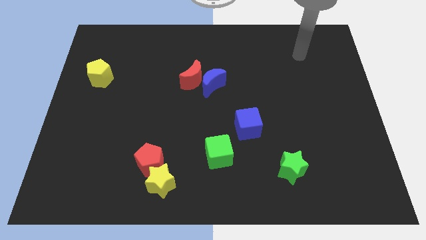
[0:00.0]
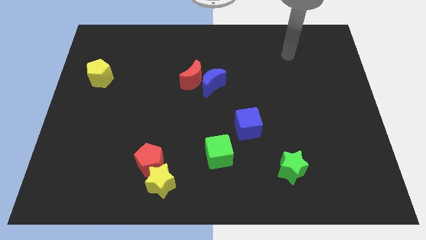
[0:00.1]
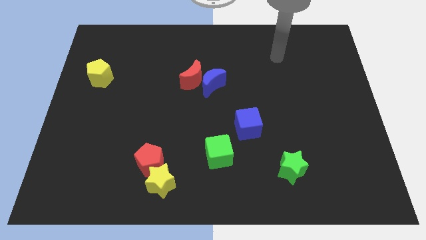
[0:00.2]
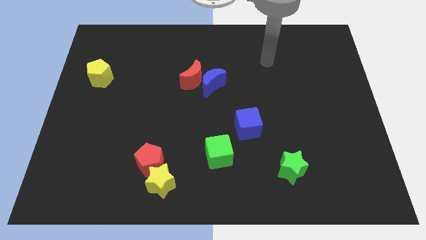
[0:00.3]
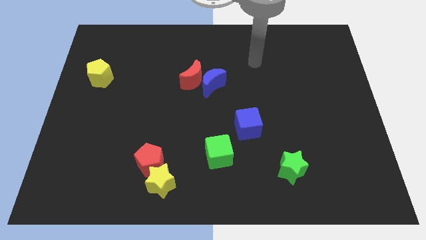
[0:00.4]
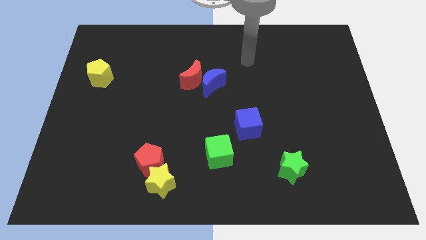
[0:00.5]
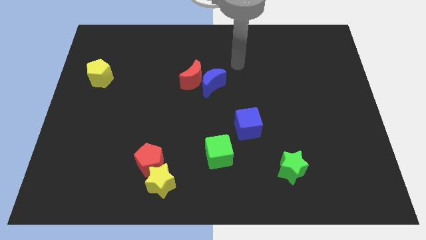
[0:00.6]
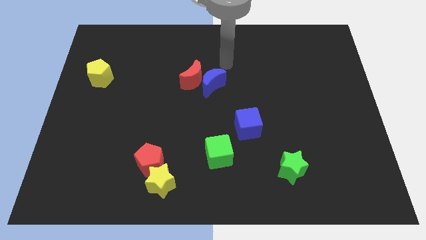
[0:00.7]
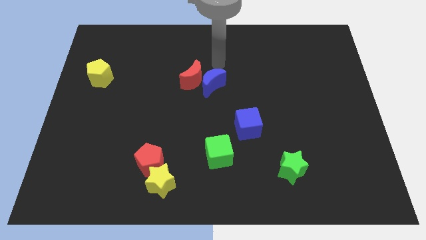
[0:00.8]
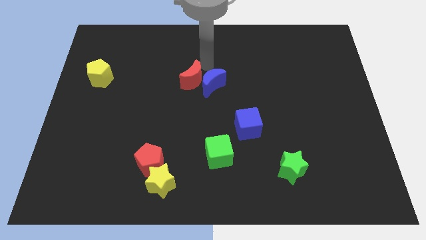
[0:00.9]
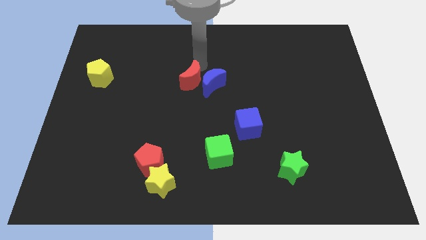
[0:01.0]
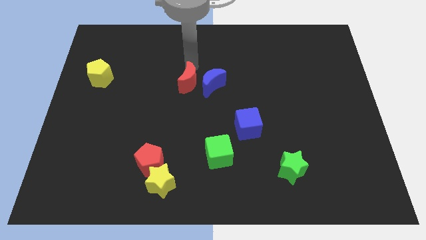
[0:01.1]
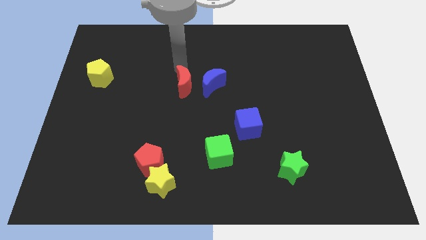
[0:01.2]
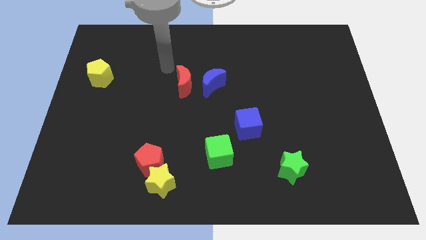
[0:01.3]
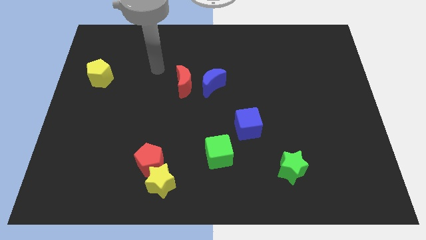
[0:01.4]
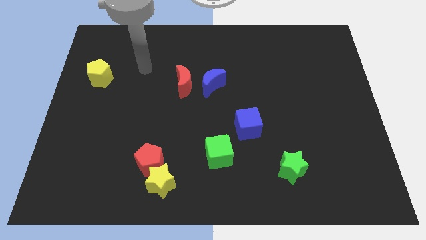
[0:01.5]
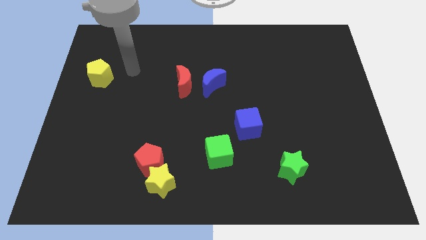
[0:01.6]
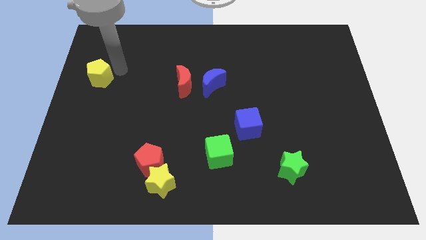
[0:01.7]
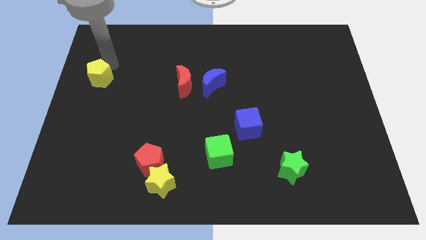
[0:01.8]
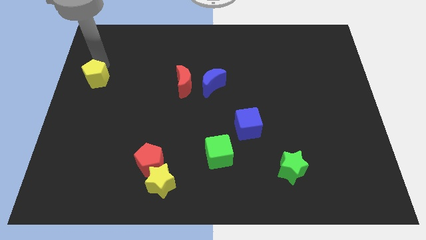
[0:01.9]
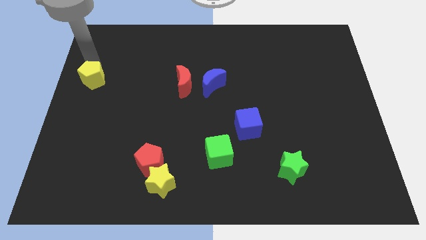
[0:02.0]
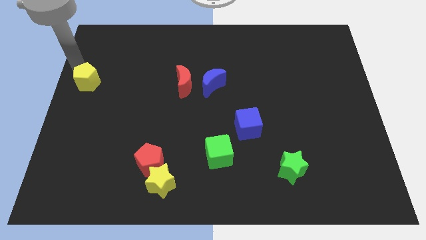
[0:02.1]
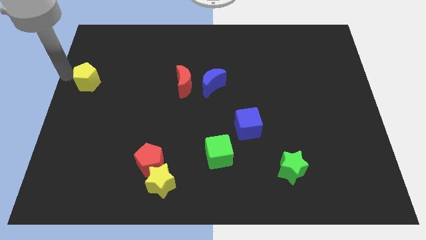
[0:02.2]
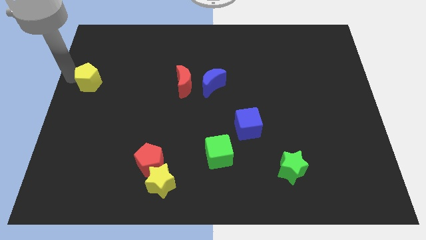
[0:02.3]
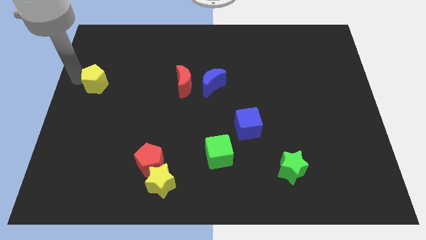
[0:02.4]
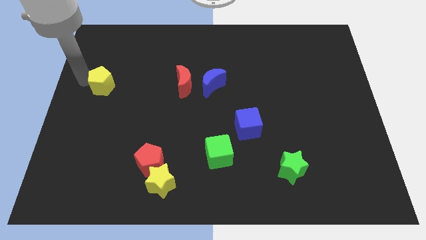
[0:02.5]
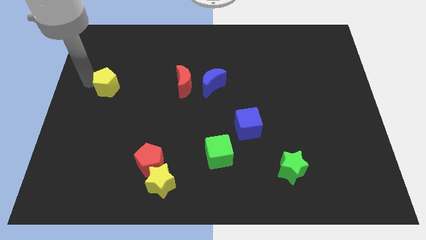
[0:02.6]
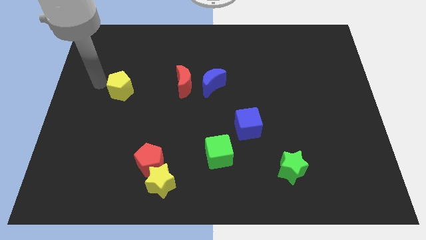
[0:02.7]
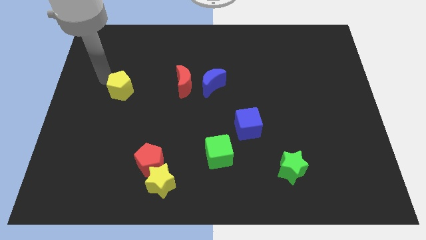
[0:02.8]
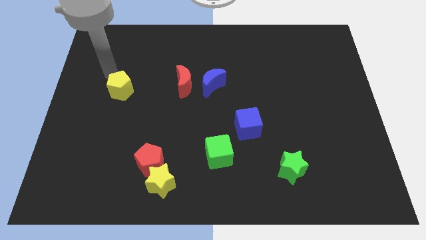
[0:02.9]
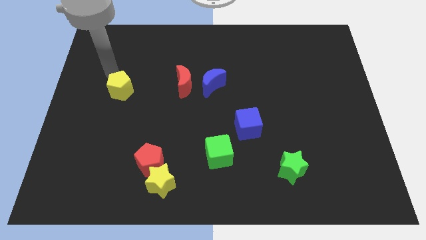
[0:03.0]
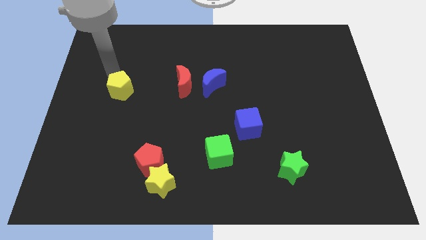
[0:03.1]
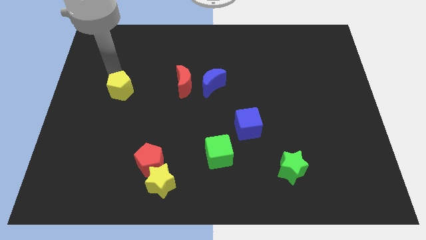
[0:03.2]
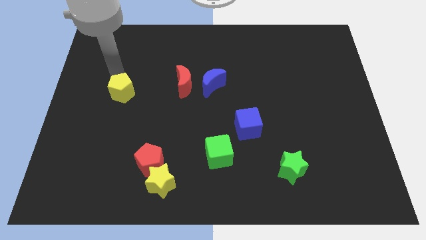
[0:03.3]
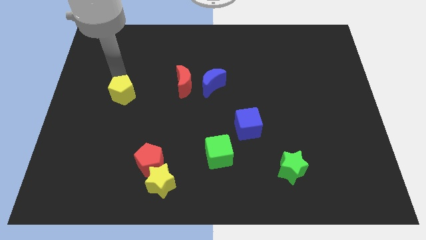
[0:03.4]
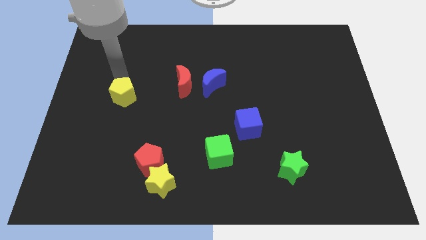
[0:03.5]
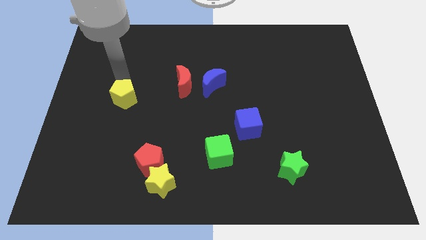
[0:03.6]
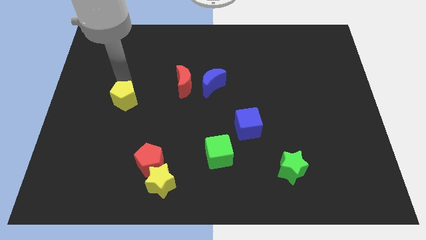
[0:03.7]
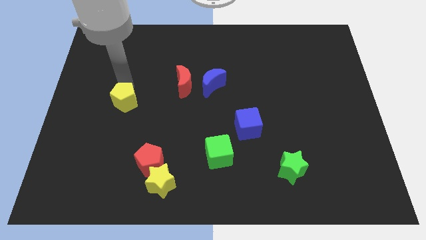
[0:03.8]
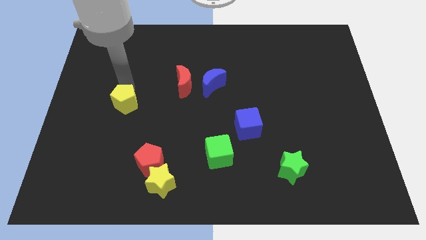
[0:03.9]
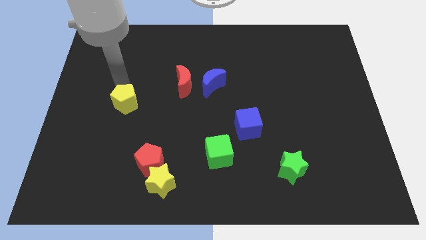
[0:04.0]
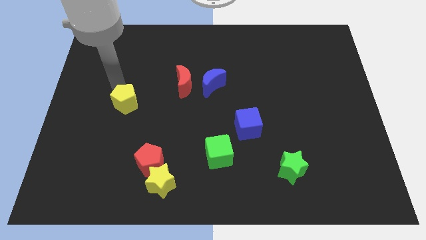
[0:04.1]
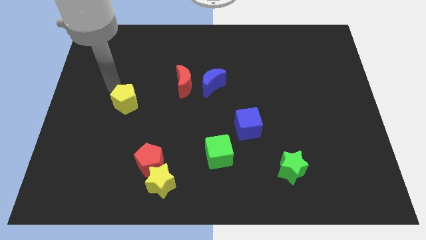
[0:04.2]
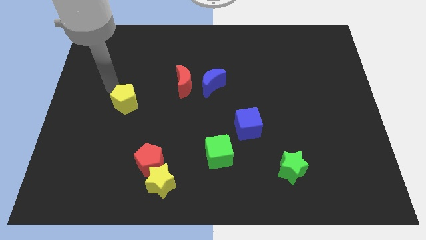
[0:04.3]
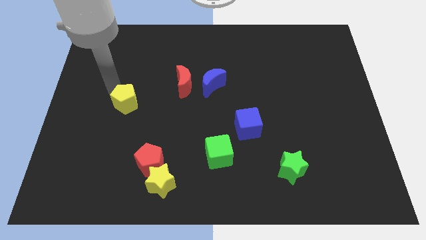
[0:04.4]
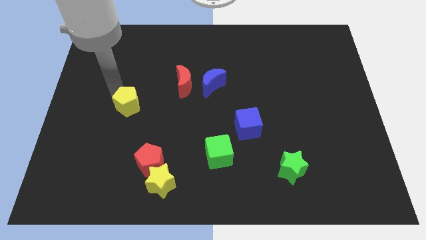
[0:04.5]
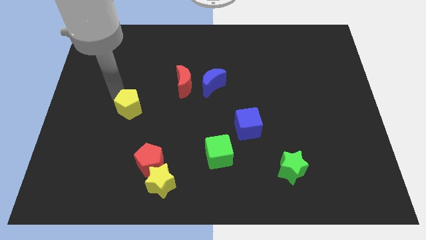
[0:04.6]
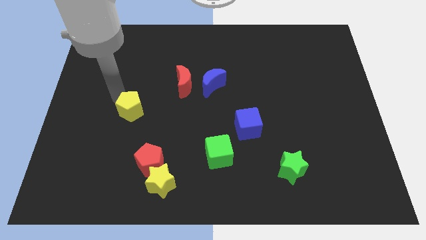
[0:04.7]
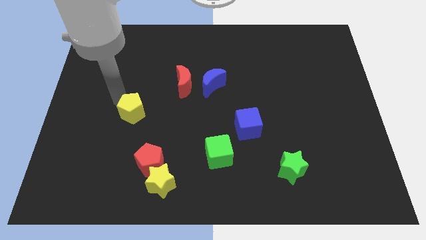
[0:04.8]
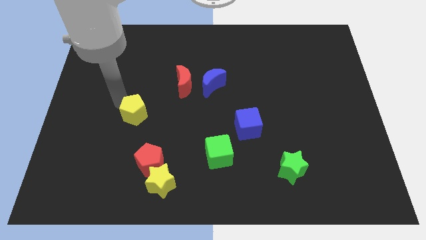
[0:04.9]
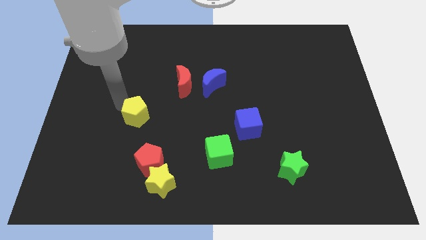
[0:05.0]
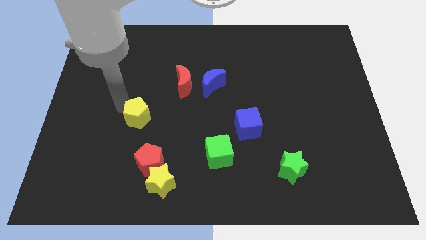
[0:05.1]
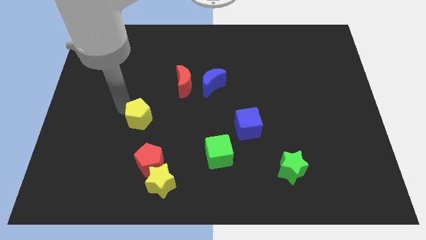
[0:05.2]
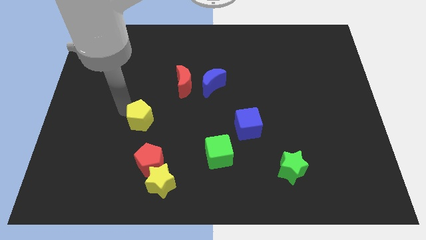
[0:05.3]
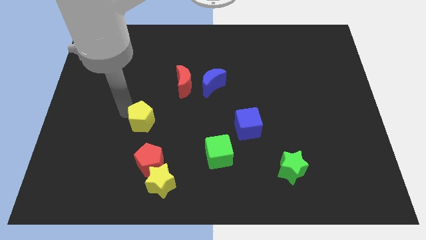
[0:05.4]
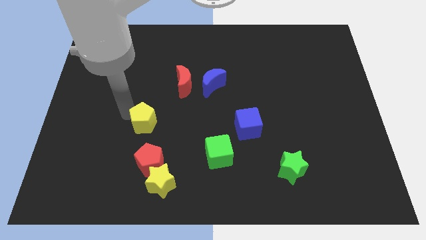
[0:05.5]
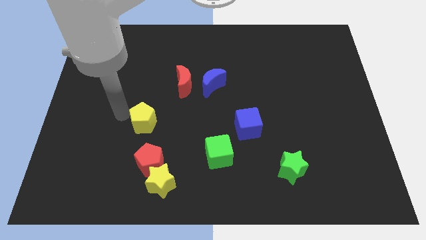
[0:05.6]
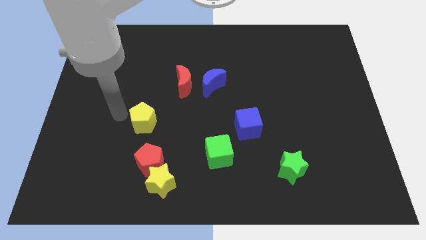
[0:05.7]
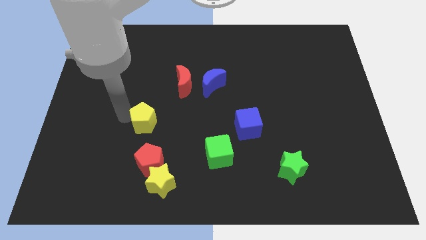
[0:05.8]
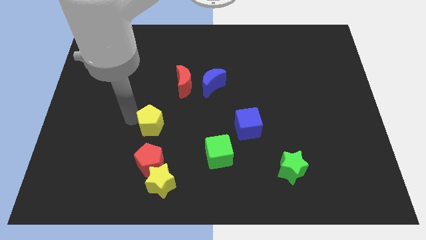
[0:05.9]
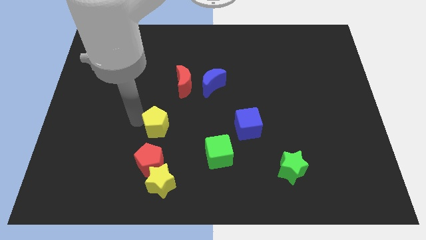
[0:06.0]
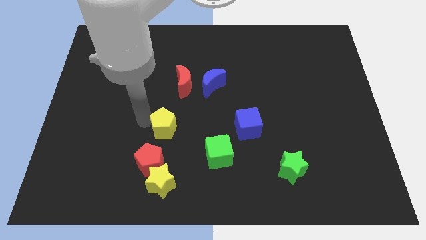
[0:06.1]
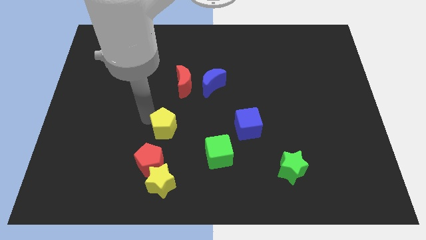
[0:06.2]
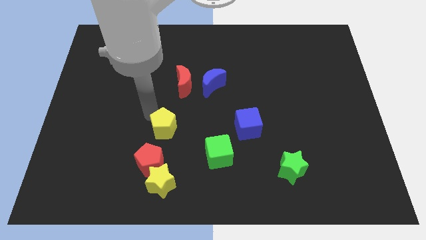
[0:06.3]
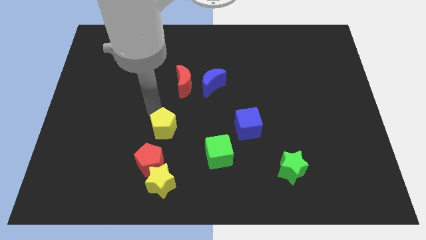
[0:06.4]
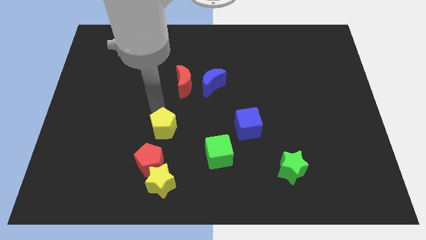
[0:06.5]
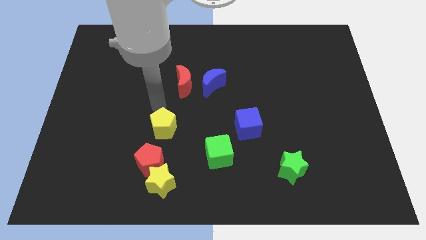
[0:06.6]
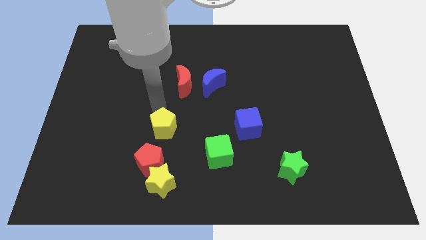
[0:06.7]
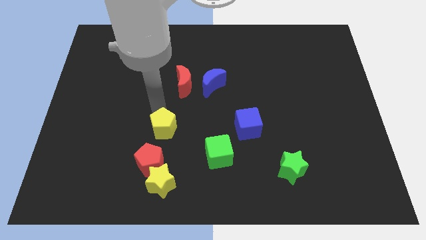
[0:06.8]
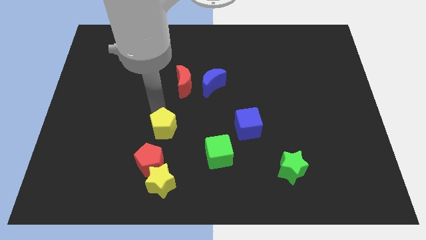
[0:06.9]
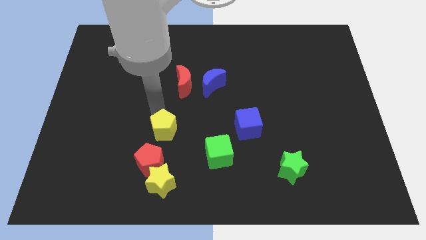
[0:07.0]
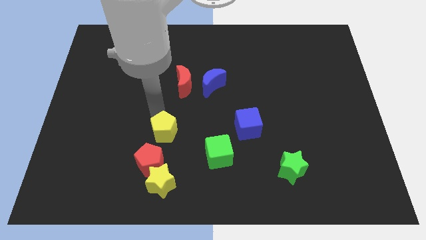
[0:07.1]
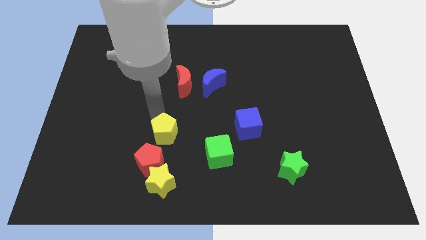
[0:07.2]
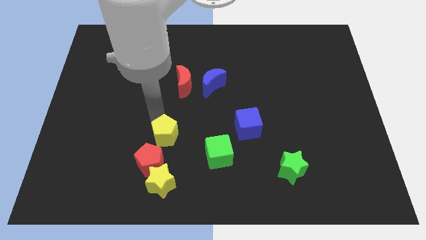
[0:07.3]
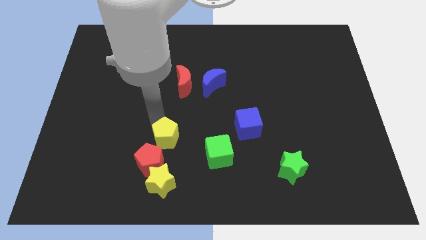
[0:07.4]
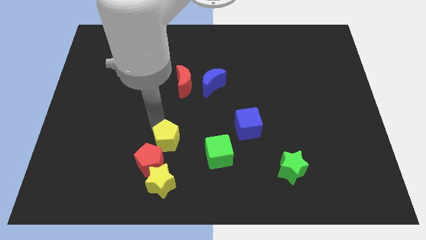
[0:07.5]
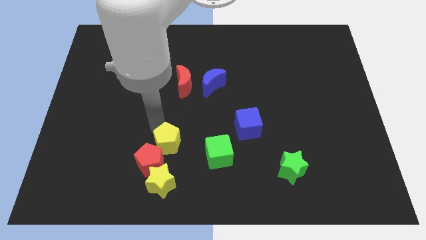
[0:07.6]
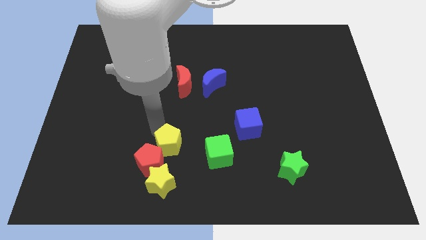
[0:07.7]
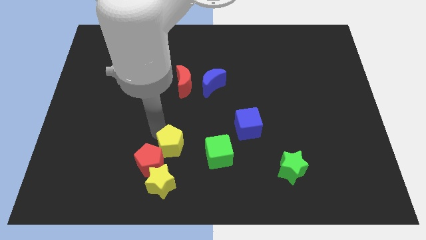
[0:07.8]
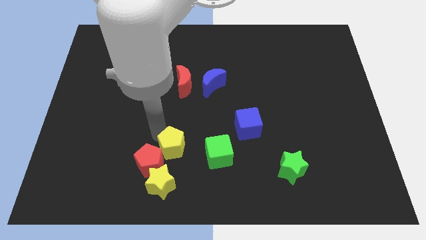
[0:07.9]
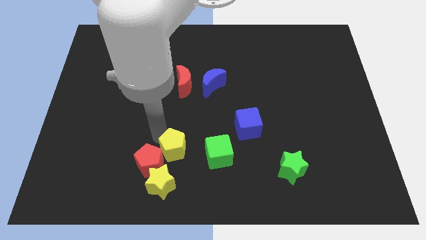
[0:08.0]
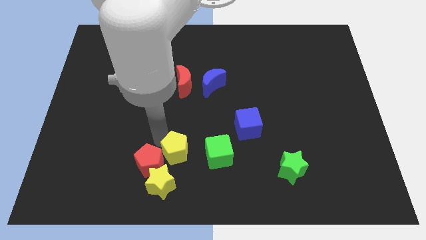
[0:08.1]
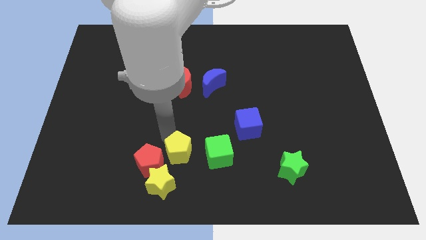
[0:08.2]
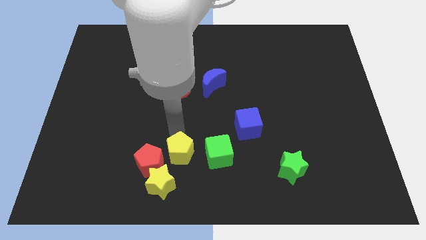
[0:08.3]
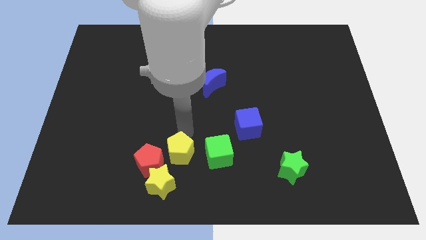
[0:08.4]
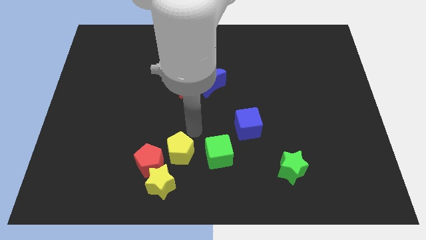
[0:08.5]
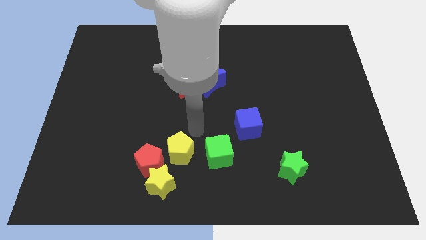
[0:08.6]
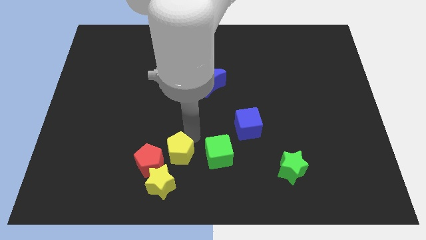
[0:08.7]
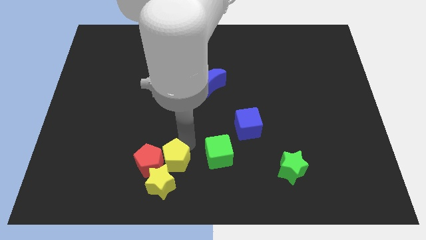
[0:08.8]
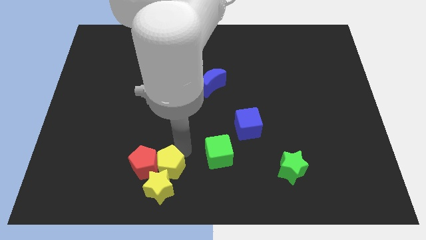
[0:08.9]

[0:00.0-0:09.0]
slide the yellow pentagon to the yellow star
